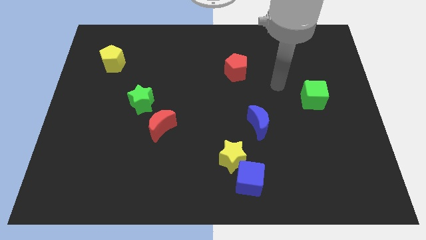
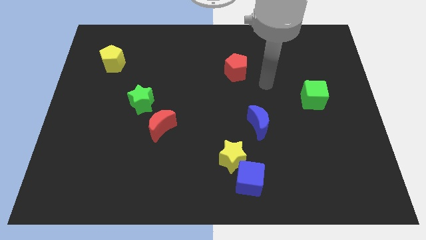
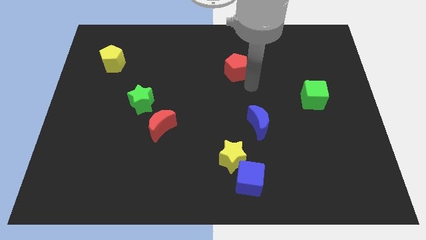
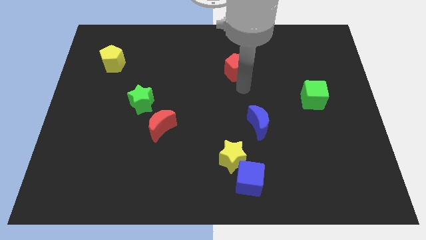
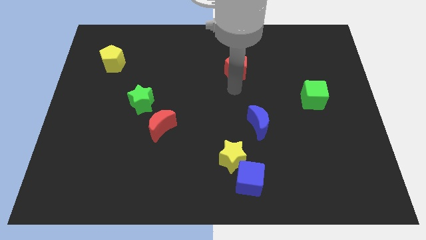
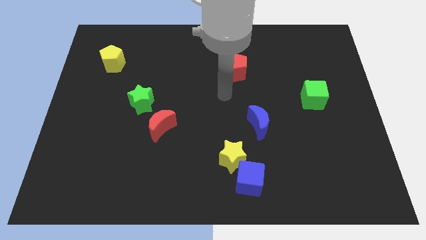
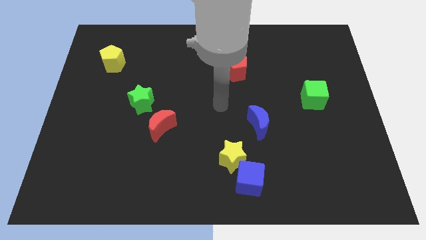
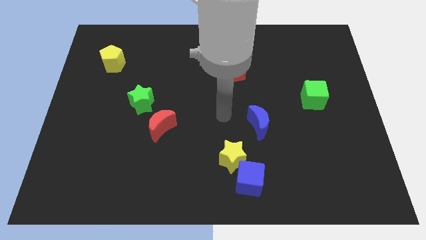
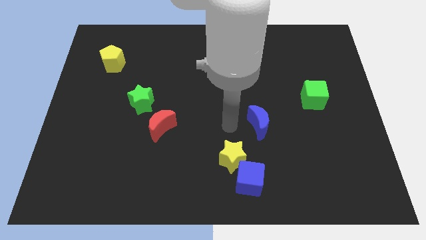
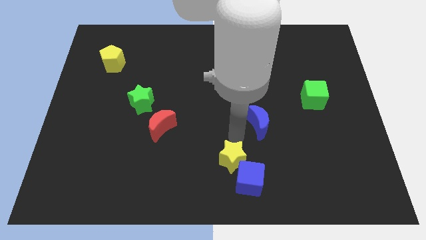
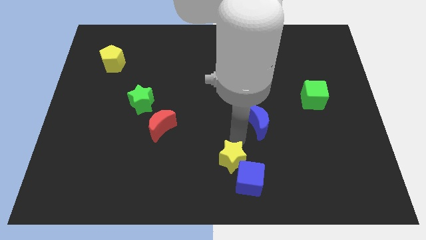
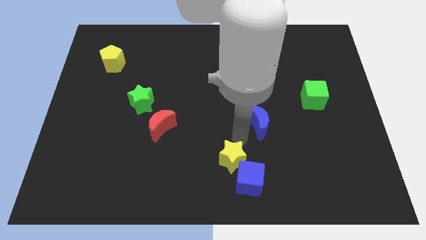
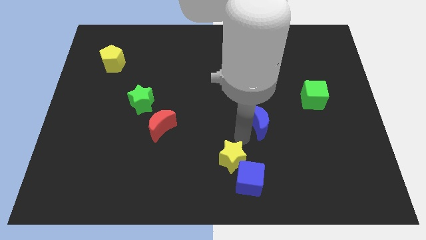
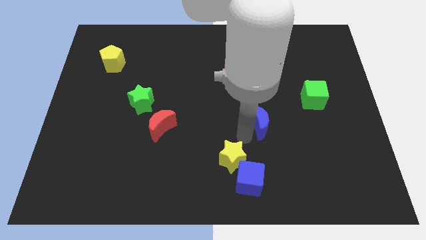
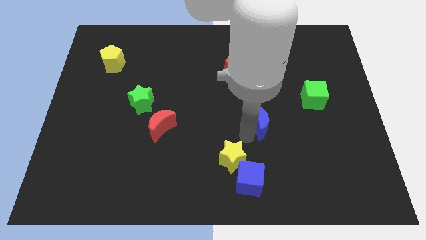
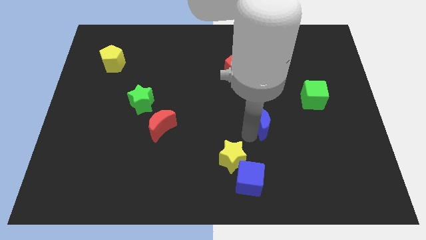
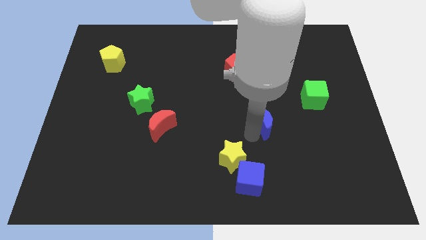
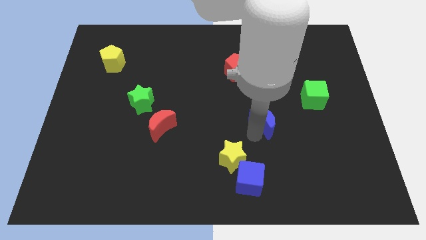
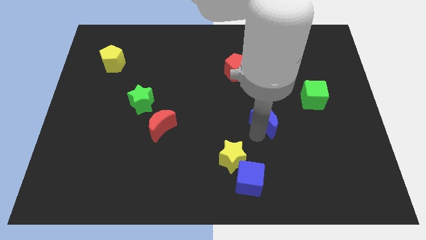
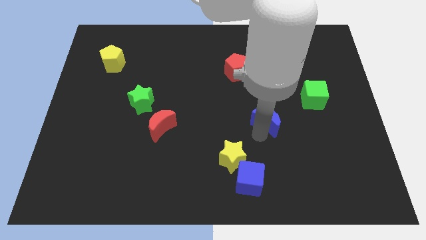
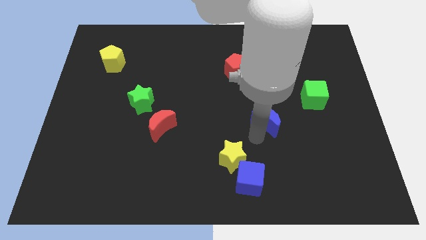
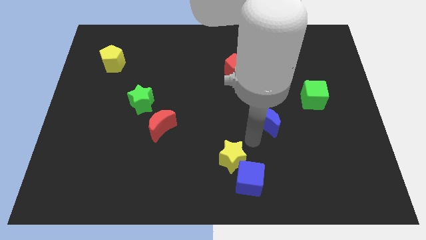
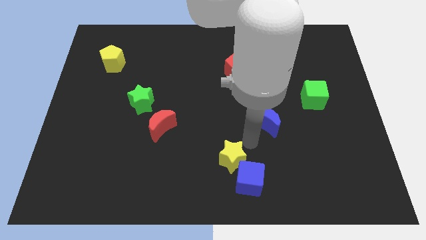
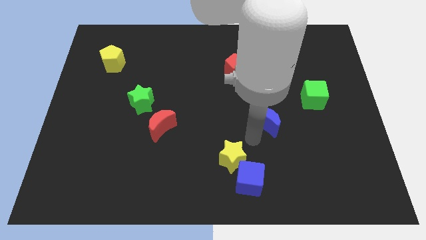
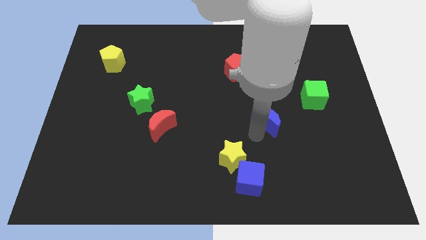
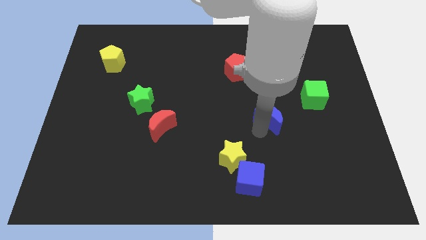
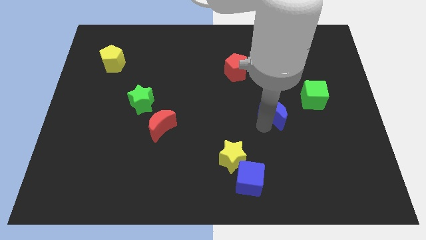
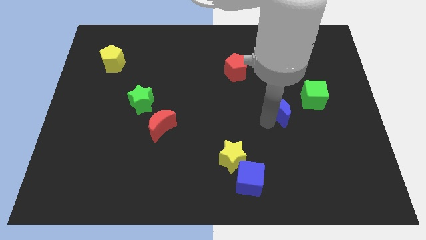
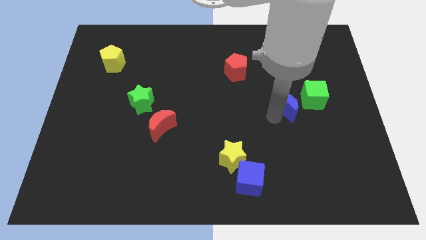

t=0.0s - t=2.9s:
move the blue moon slightly upwards and to the right diagonally

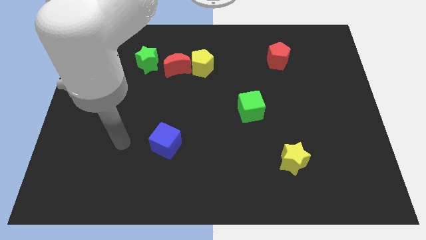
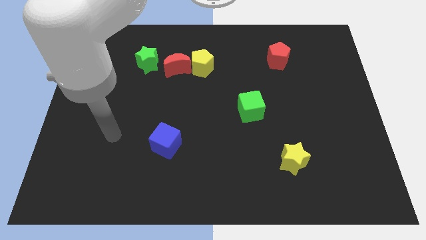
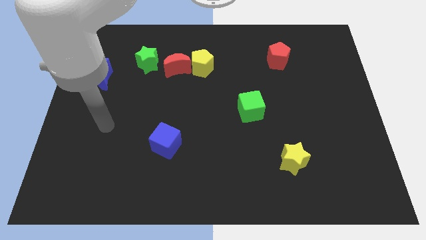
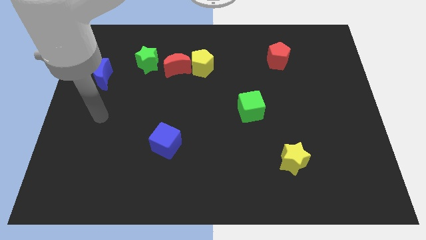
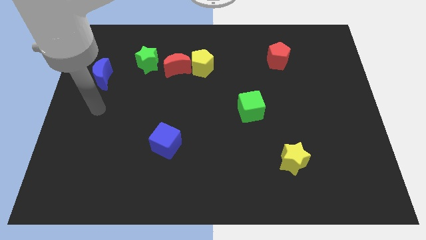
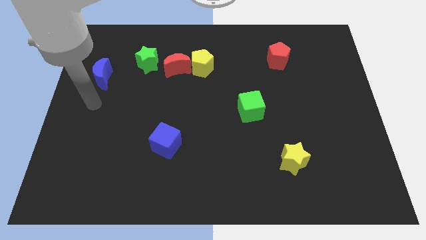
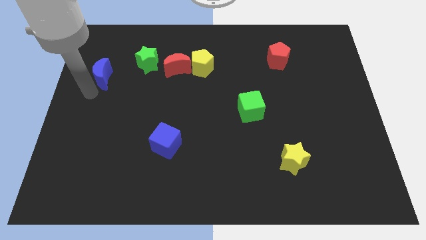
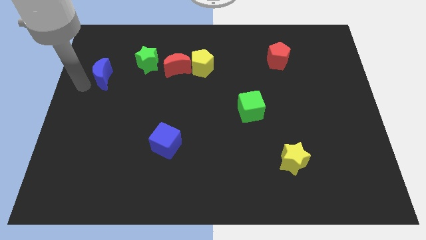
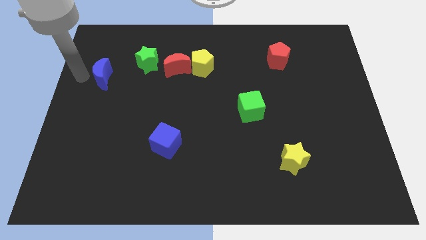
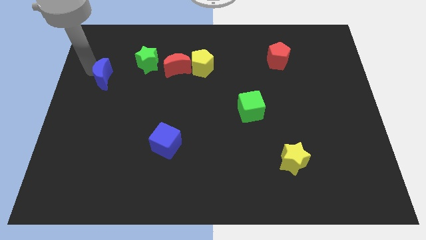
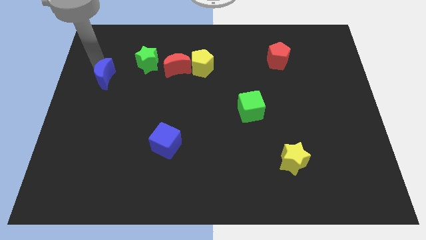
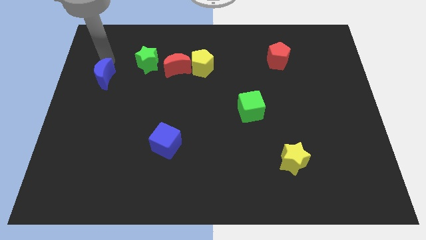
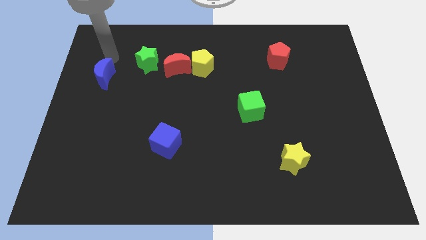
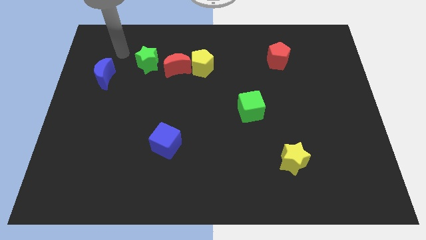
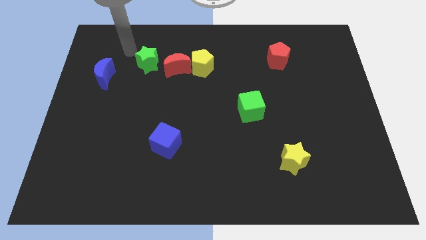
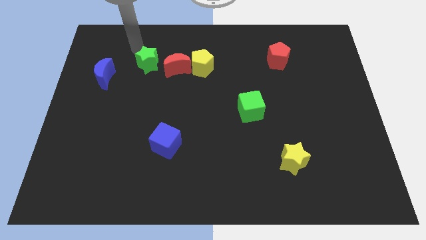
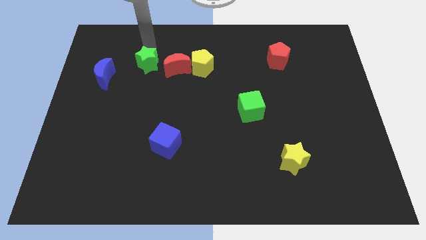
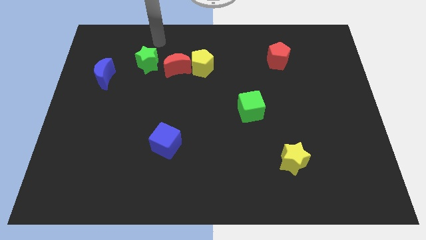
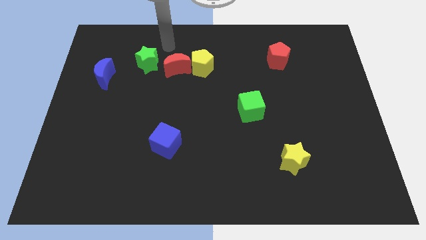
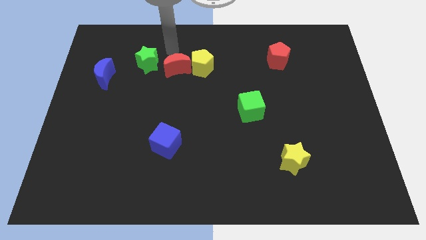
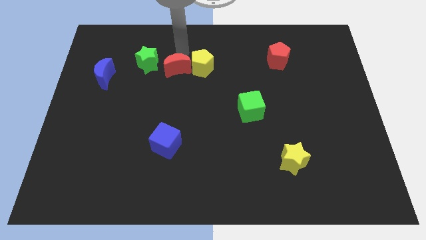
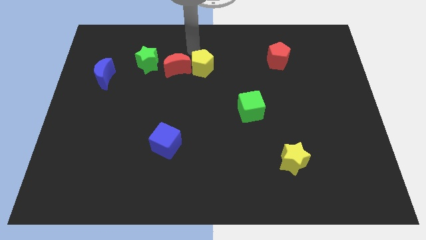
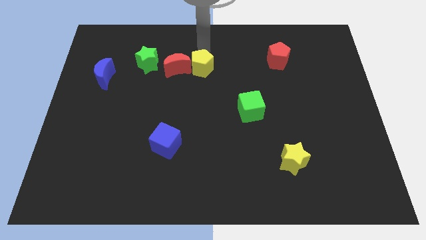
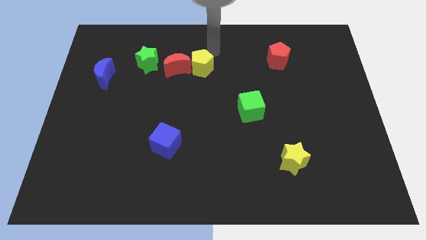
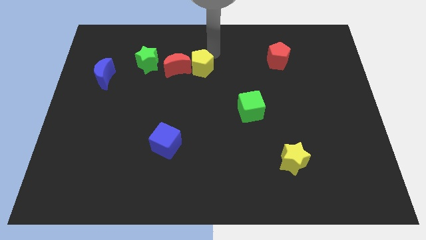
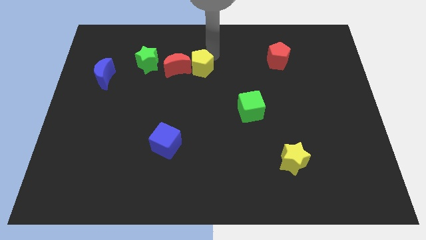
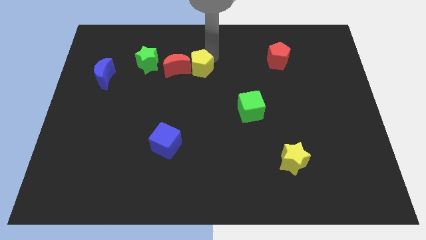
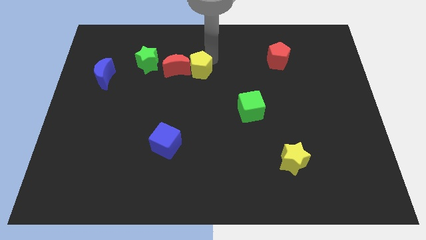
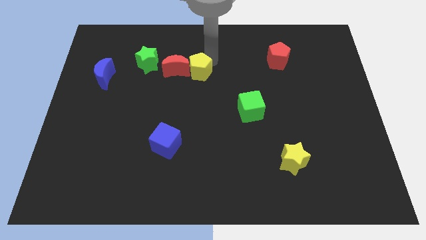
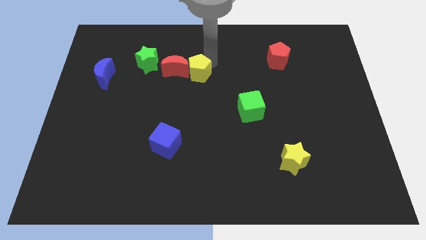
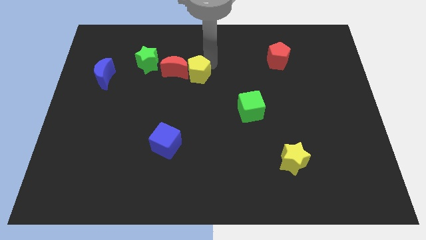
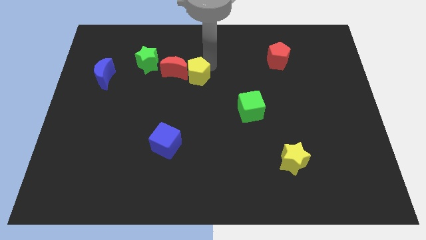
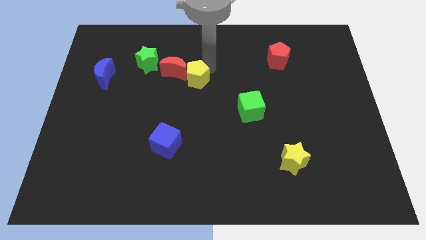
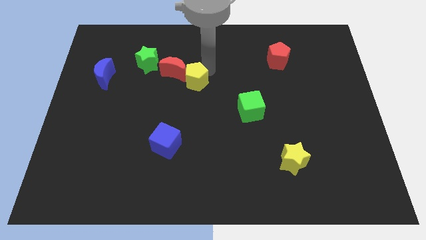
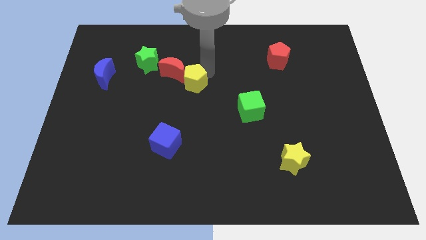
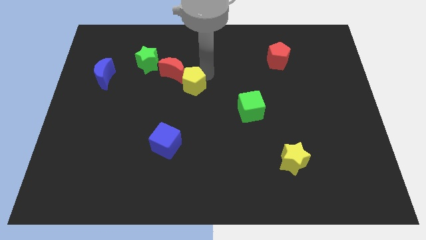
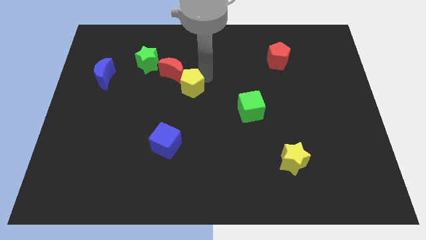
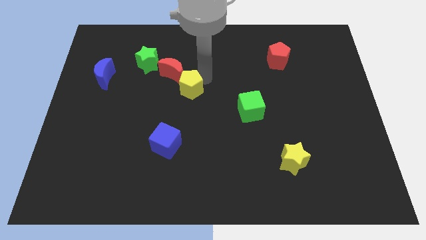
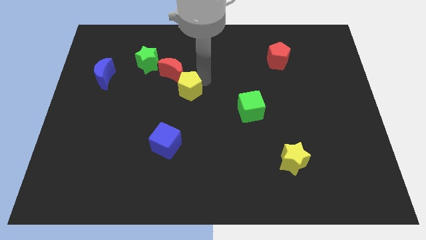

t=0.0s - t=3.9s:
push the yellow pentagon down and to the left slightly

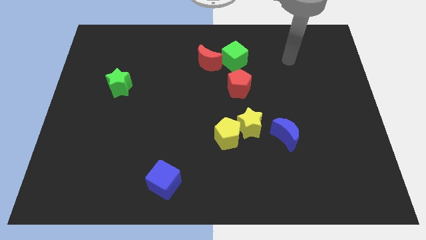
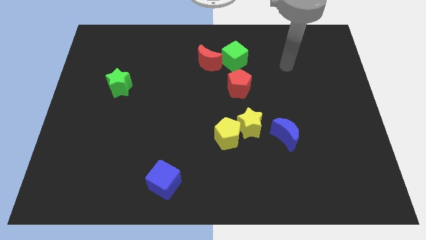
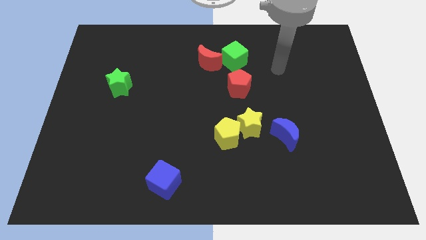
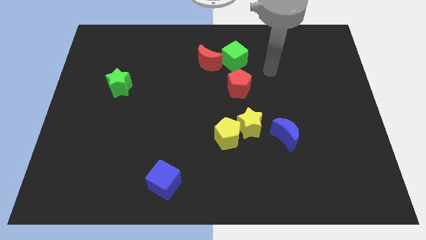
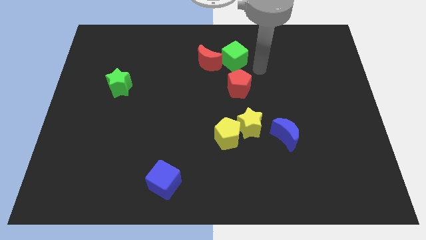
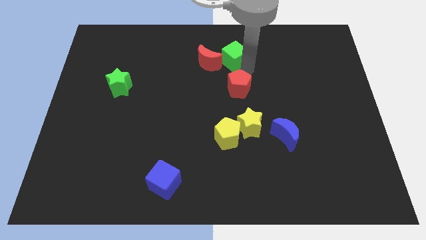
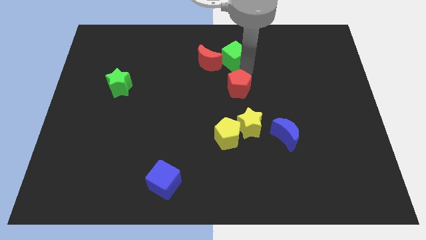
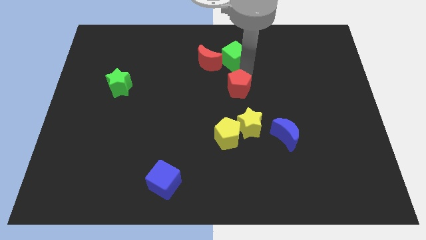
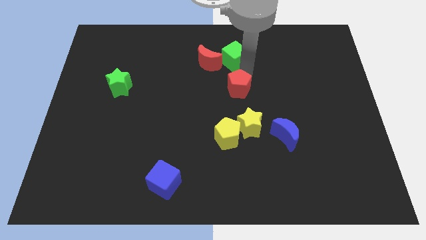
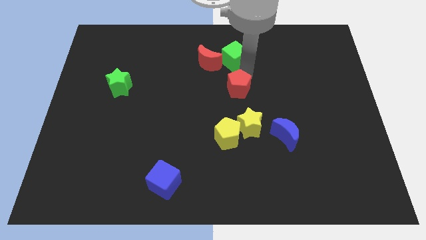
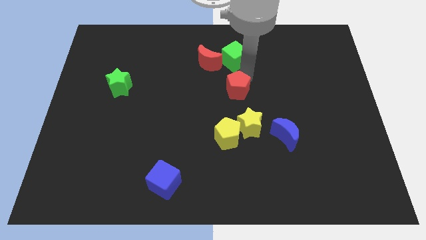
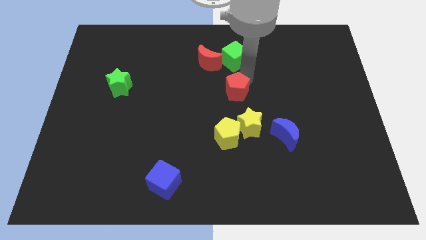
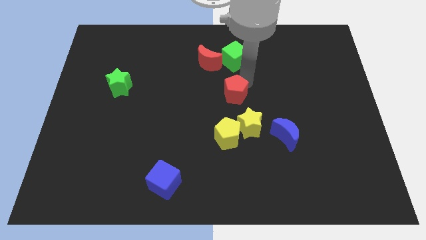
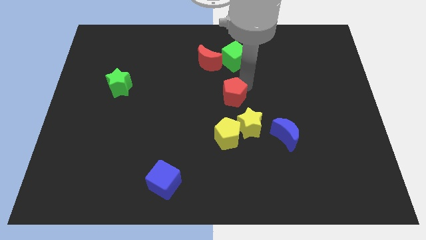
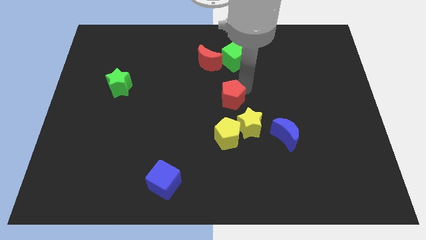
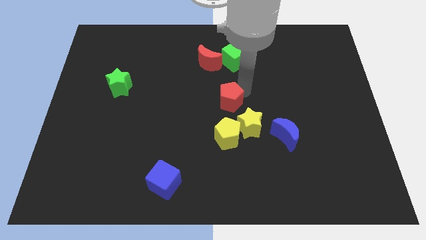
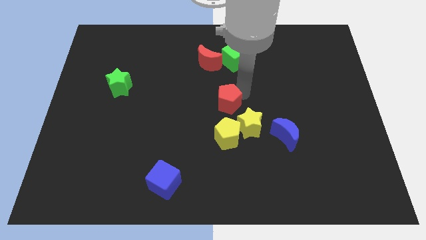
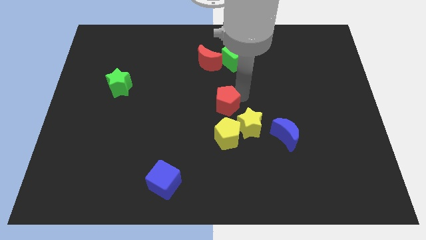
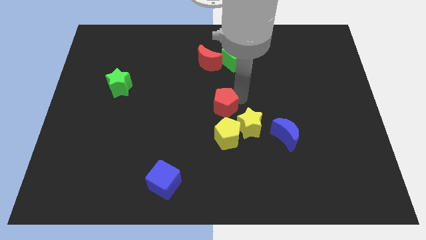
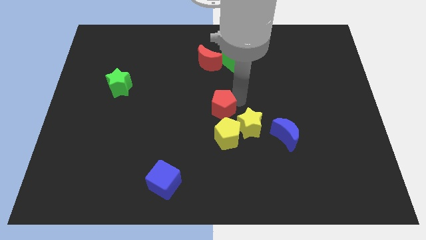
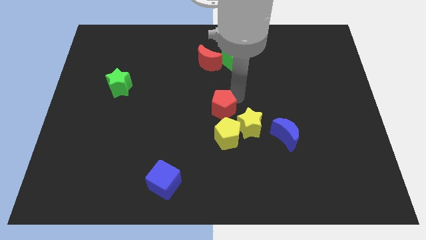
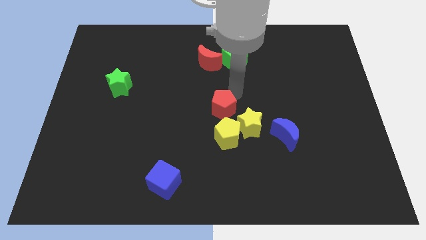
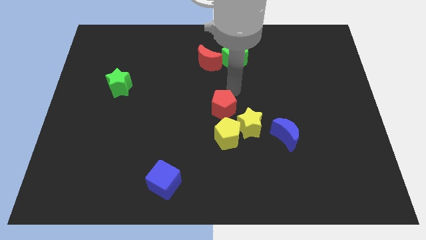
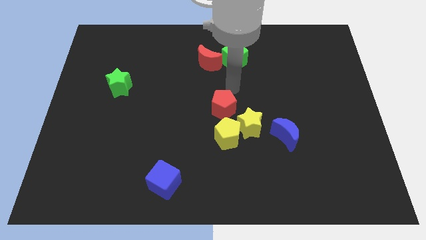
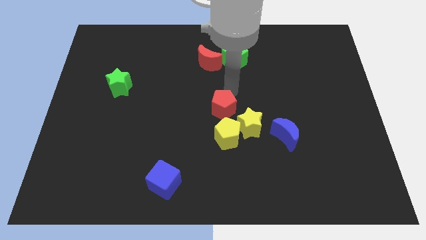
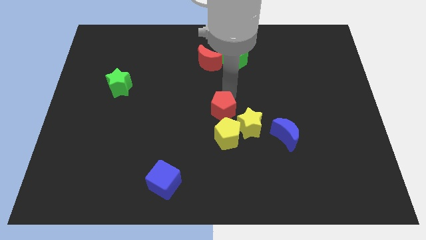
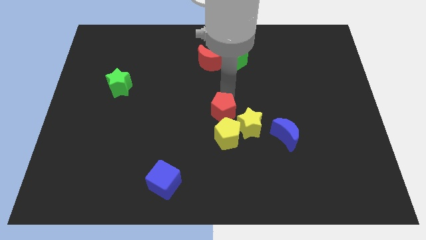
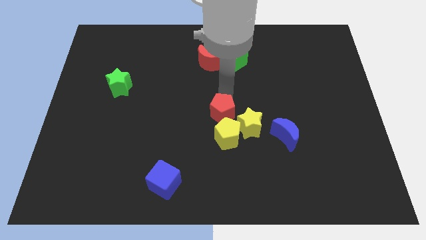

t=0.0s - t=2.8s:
slightly slide the red pentagon down
